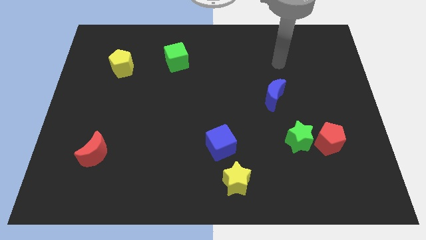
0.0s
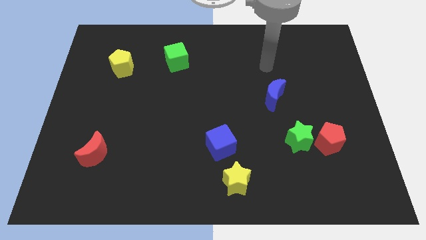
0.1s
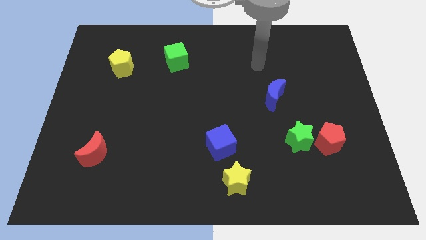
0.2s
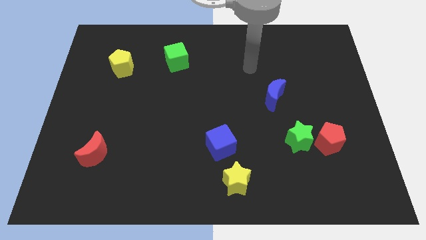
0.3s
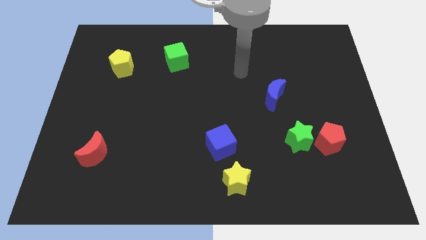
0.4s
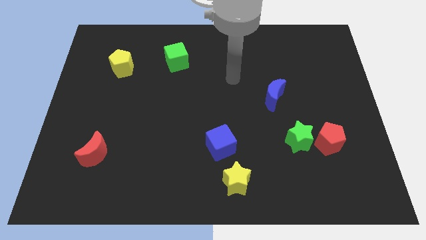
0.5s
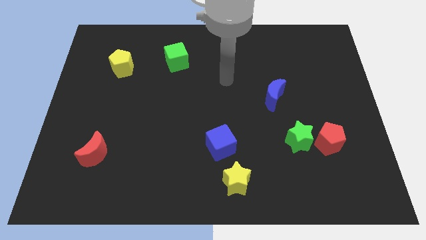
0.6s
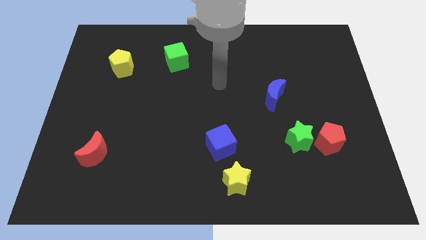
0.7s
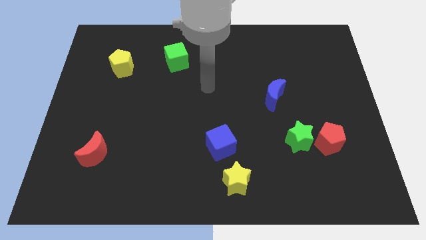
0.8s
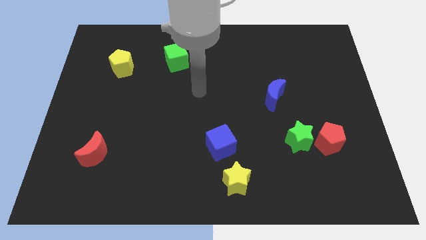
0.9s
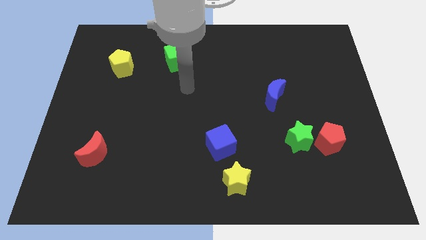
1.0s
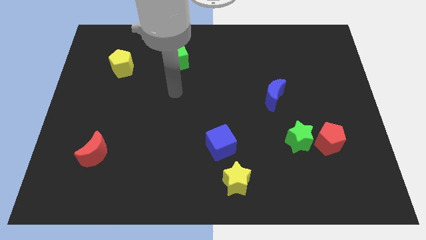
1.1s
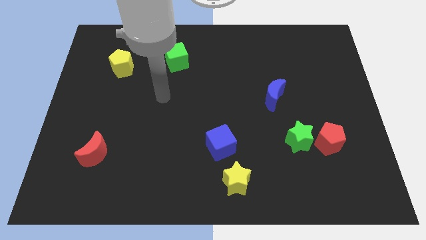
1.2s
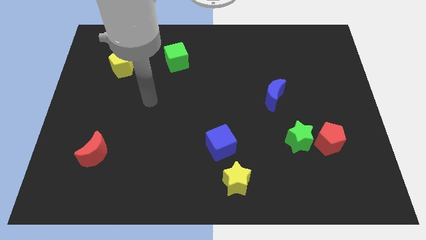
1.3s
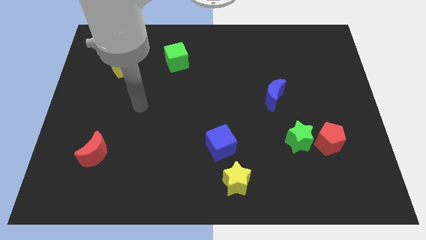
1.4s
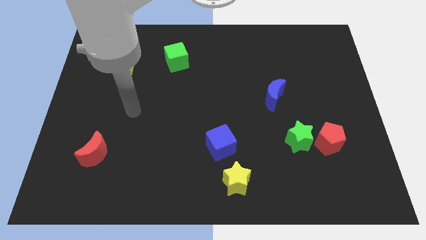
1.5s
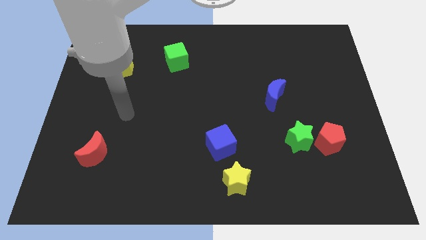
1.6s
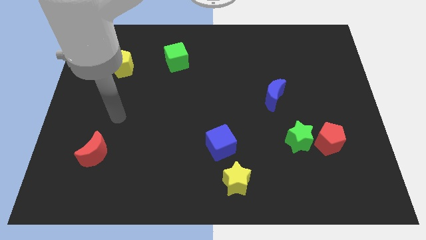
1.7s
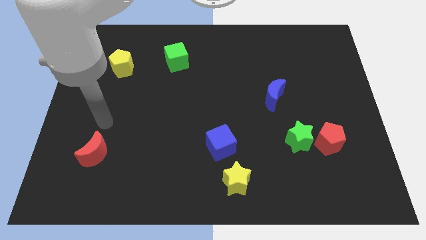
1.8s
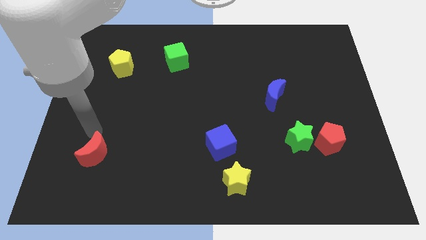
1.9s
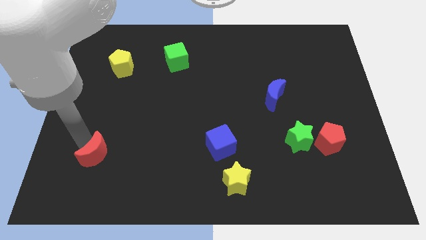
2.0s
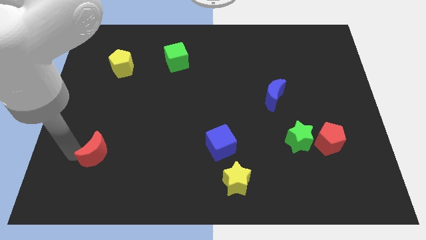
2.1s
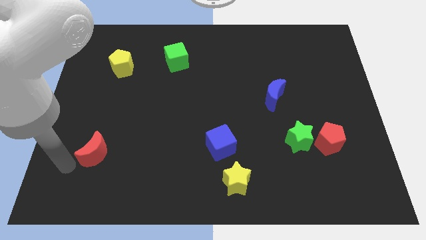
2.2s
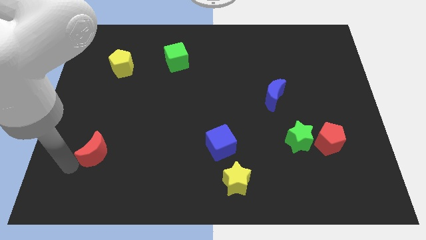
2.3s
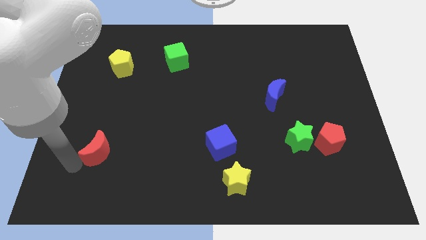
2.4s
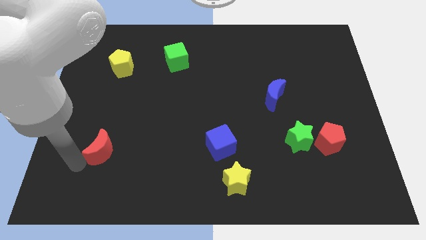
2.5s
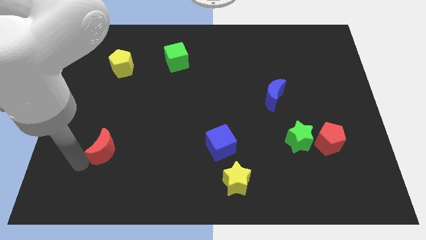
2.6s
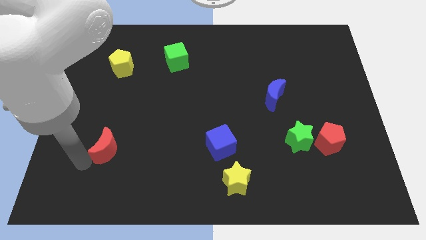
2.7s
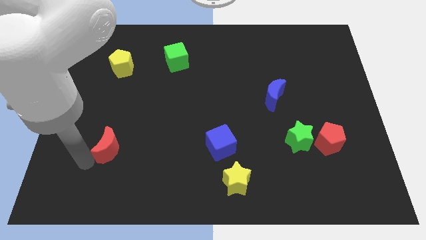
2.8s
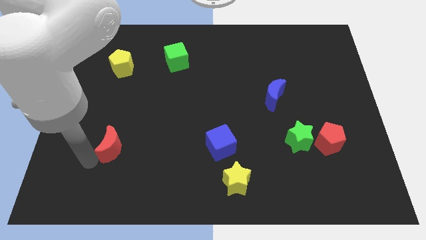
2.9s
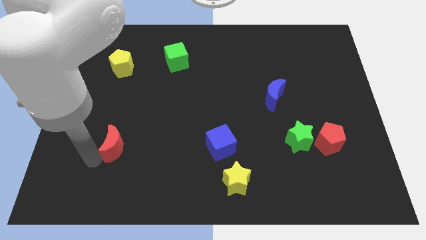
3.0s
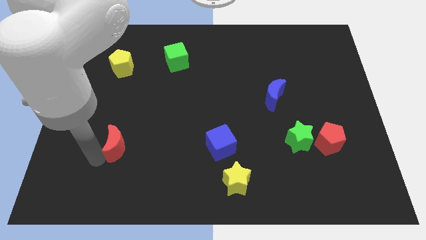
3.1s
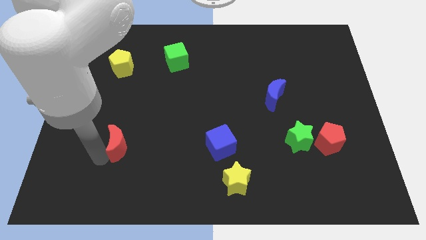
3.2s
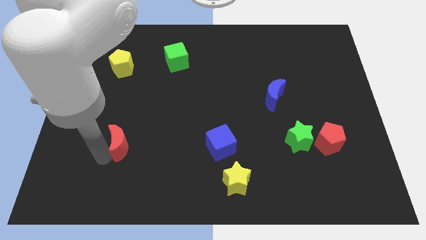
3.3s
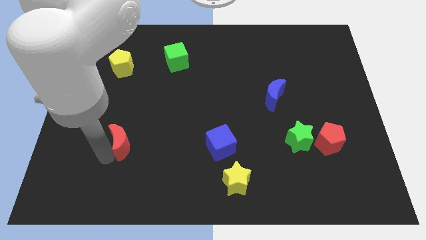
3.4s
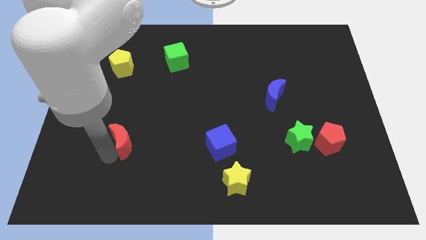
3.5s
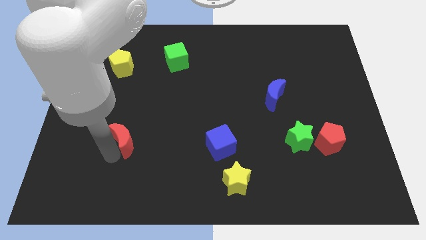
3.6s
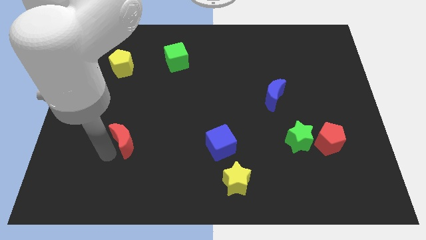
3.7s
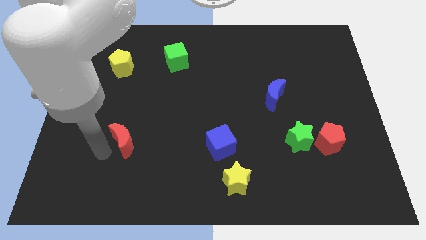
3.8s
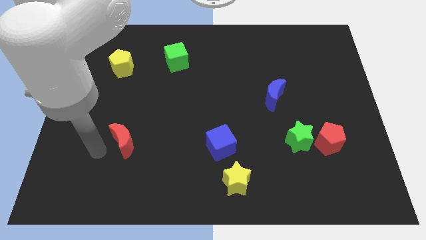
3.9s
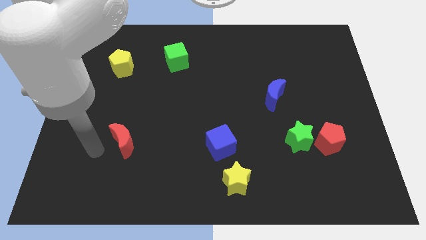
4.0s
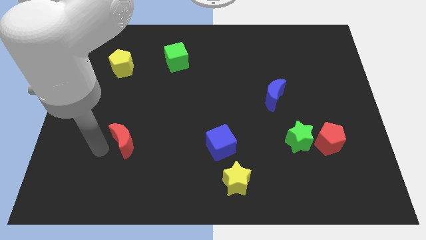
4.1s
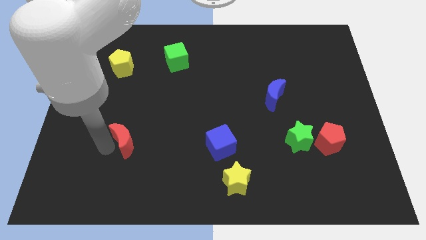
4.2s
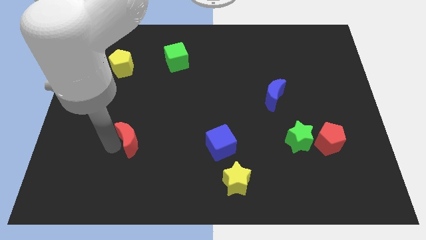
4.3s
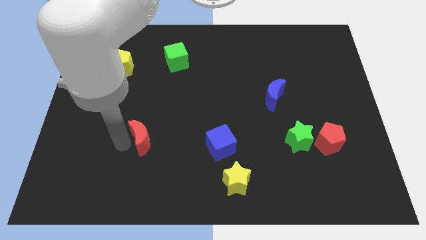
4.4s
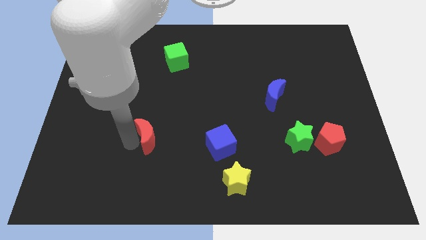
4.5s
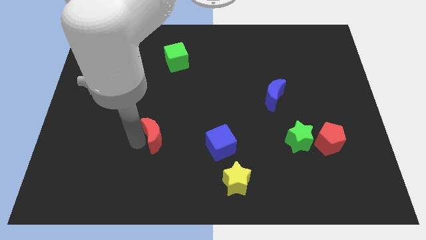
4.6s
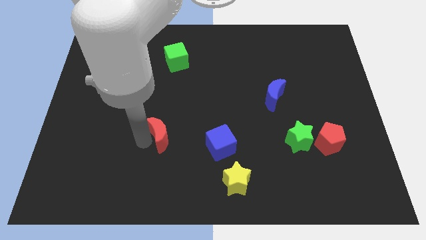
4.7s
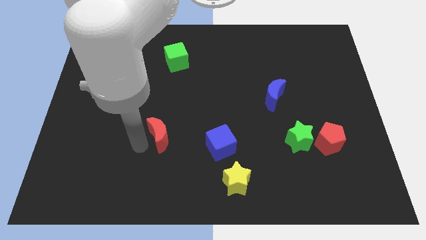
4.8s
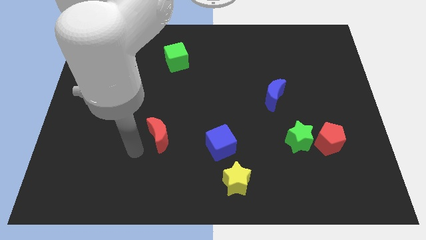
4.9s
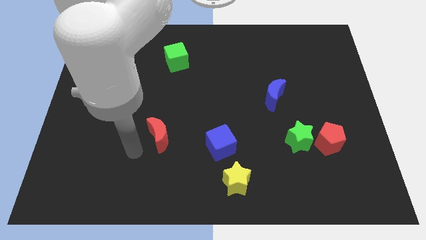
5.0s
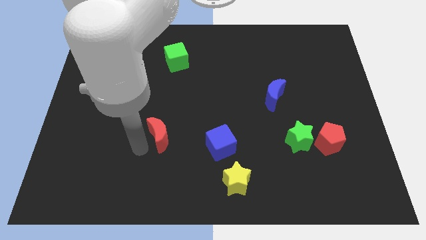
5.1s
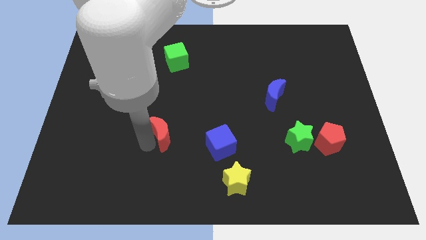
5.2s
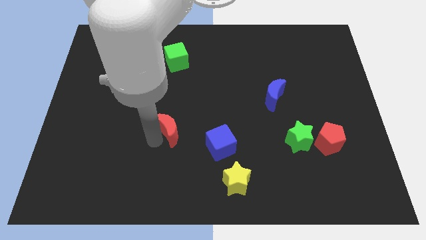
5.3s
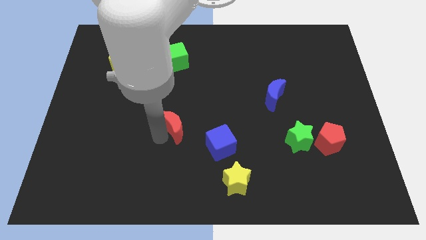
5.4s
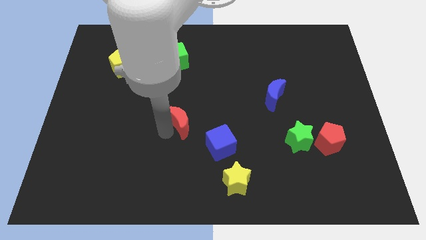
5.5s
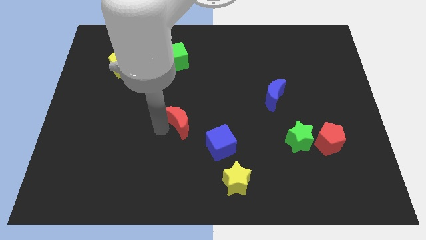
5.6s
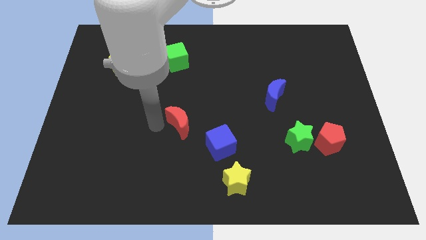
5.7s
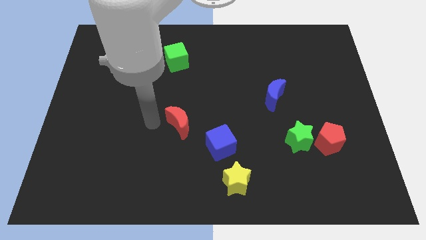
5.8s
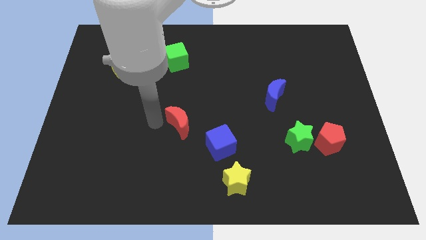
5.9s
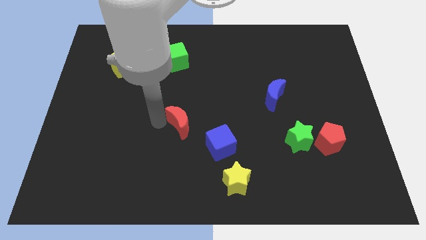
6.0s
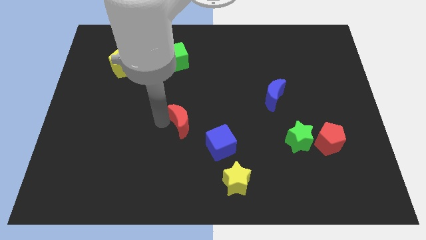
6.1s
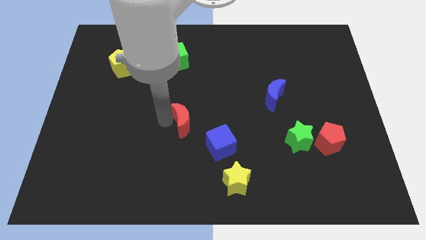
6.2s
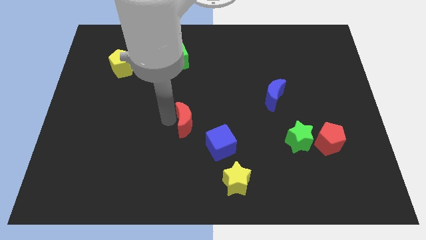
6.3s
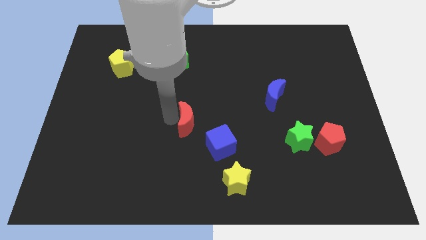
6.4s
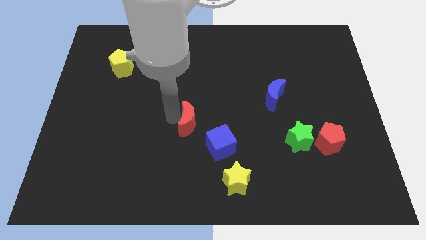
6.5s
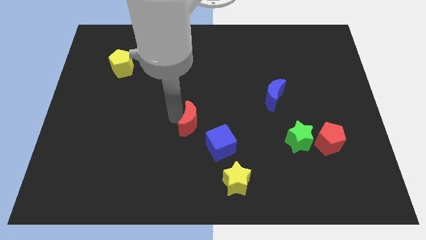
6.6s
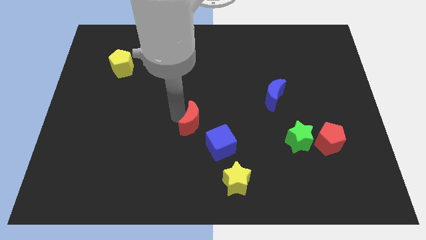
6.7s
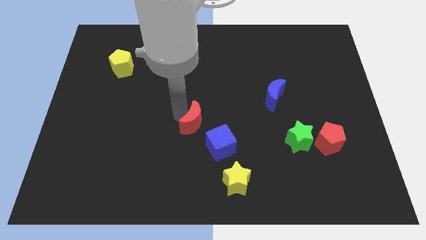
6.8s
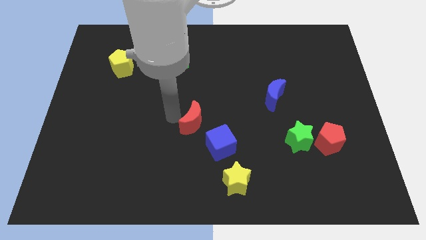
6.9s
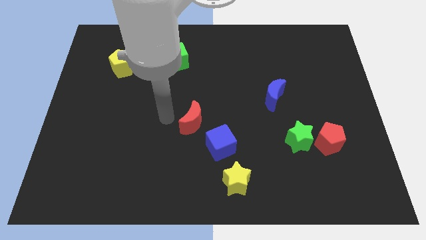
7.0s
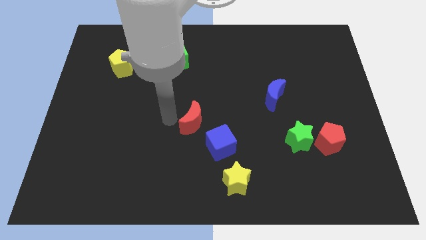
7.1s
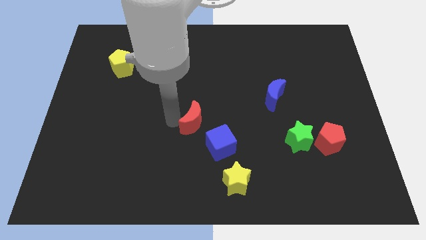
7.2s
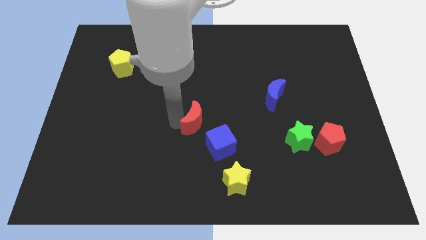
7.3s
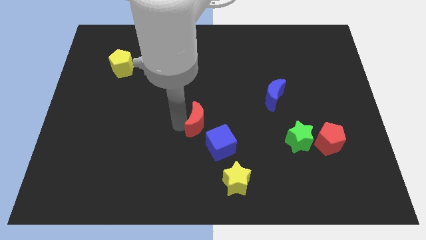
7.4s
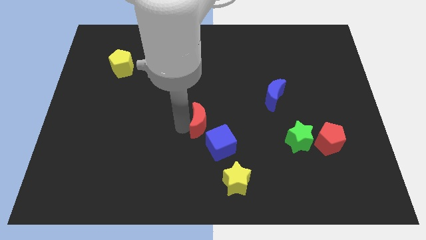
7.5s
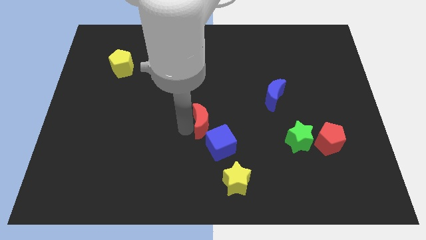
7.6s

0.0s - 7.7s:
push the red moon right

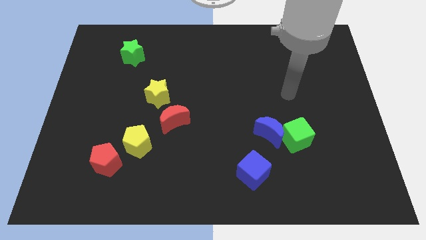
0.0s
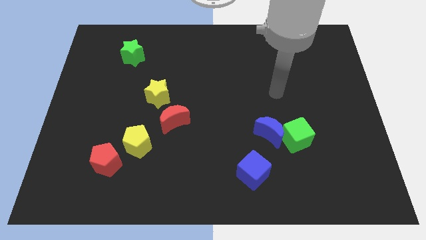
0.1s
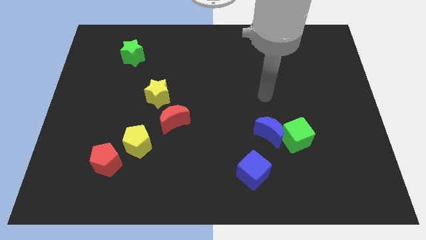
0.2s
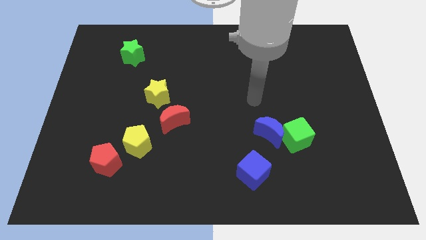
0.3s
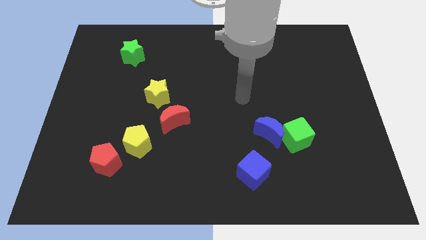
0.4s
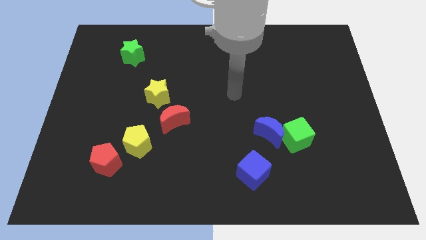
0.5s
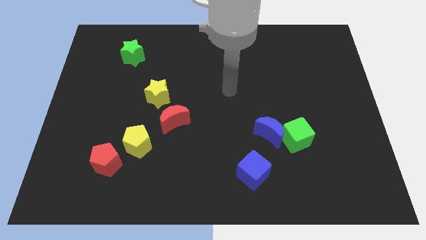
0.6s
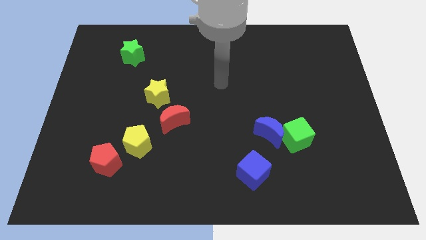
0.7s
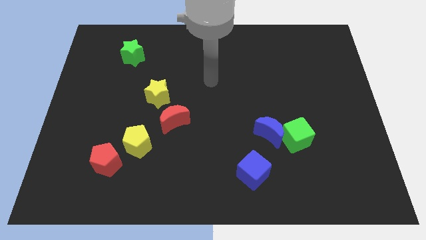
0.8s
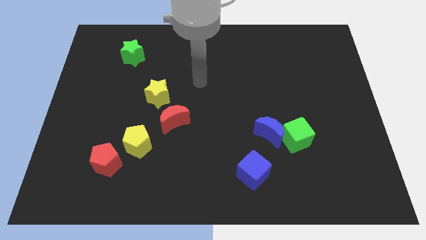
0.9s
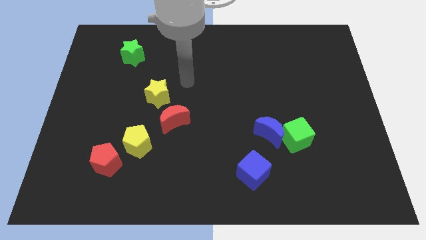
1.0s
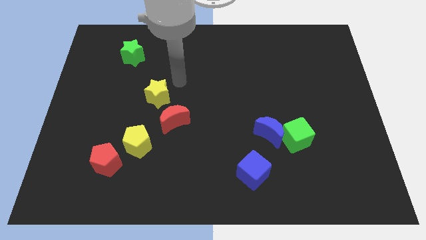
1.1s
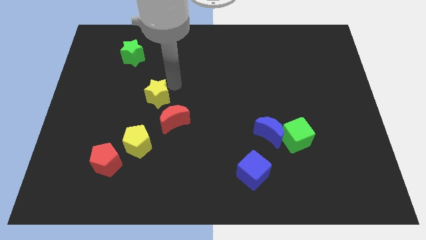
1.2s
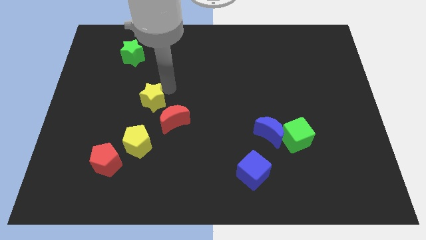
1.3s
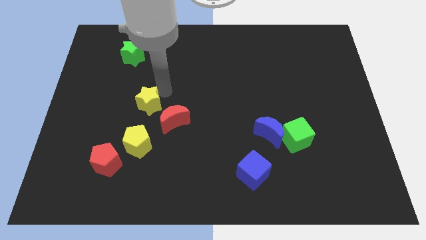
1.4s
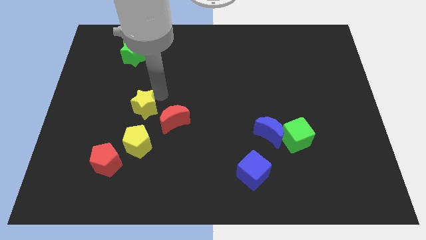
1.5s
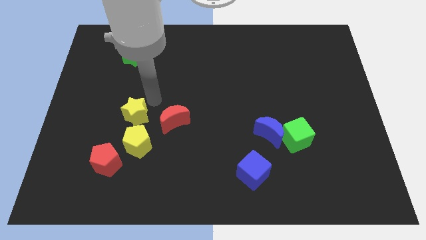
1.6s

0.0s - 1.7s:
move the yellow star downwards and to the left diagonally a bit
